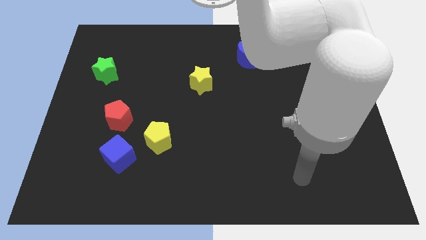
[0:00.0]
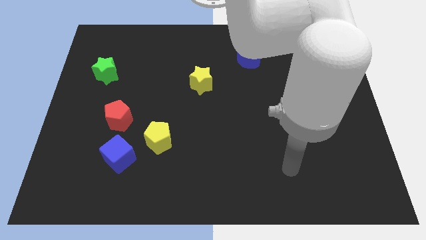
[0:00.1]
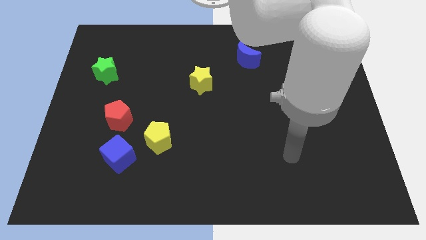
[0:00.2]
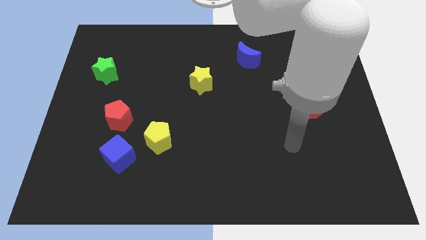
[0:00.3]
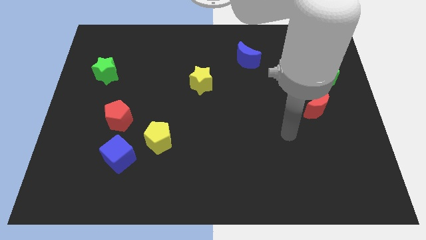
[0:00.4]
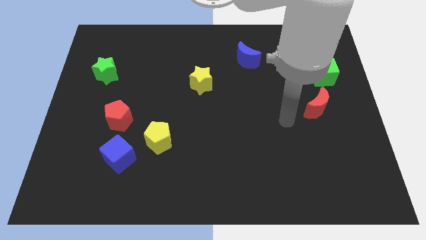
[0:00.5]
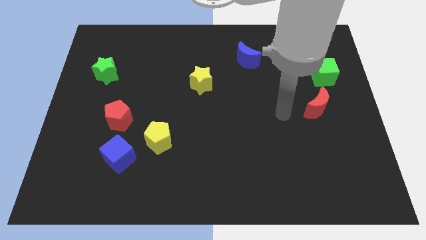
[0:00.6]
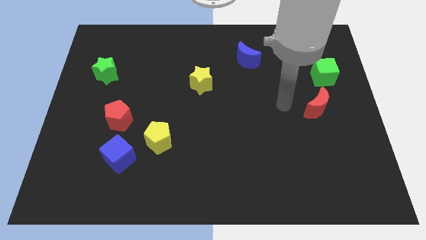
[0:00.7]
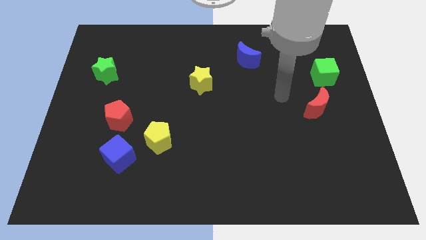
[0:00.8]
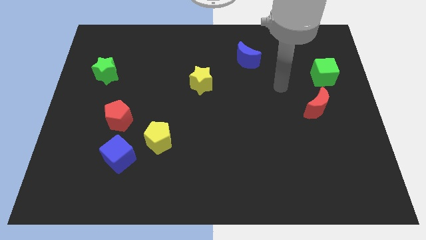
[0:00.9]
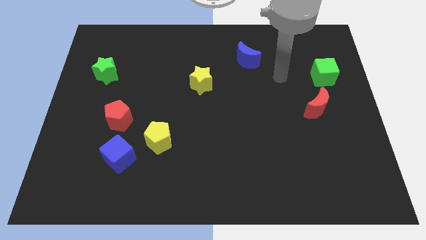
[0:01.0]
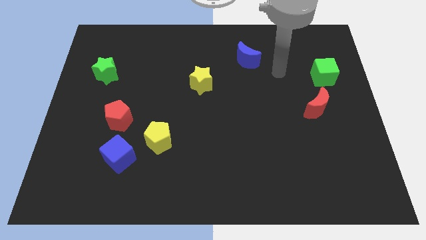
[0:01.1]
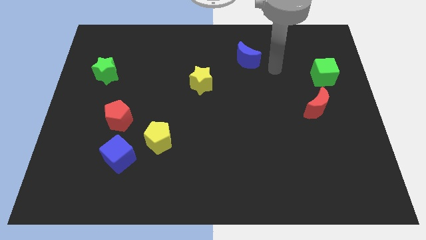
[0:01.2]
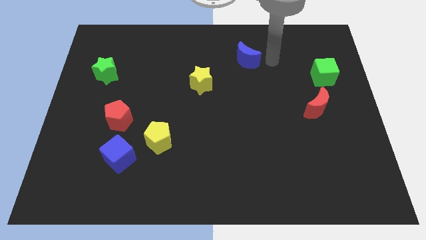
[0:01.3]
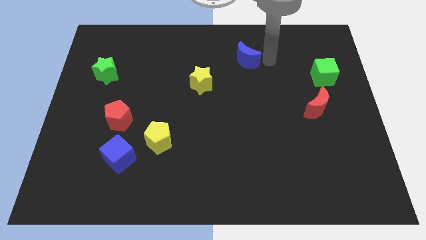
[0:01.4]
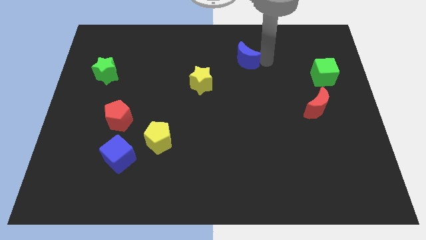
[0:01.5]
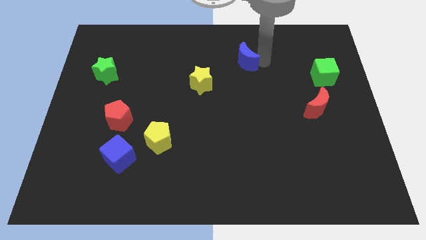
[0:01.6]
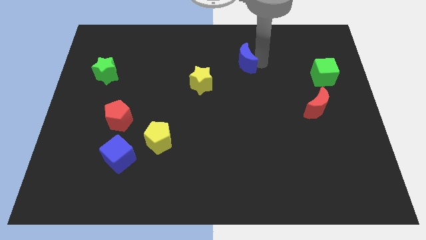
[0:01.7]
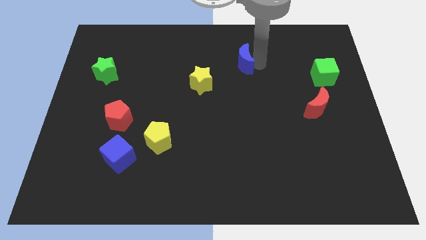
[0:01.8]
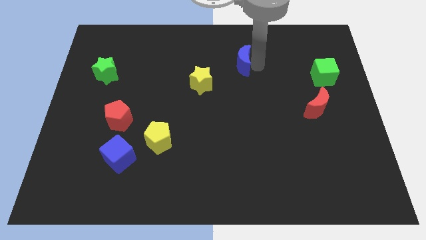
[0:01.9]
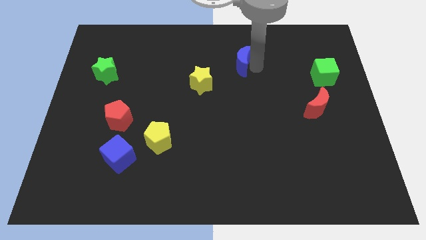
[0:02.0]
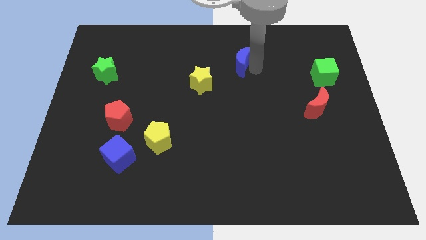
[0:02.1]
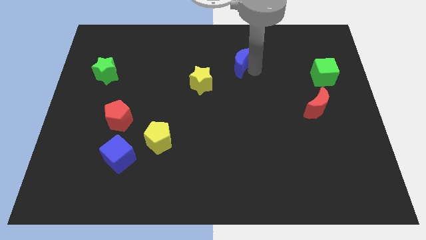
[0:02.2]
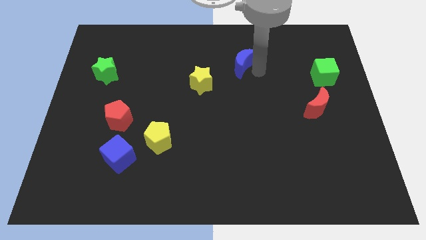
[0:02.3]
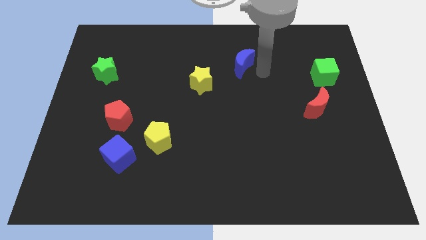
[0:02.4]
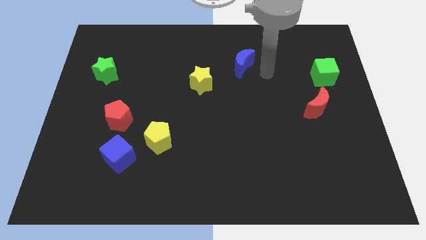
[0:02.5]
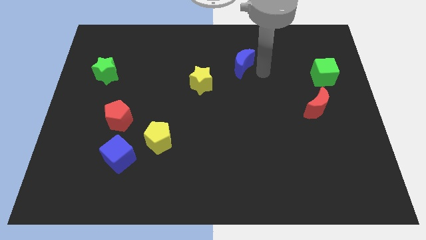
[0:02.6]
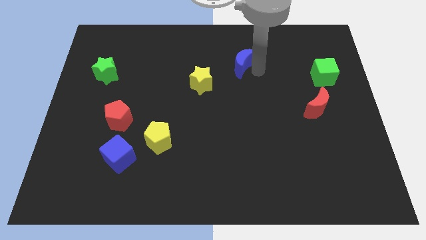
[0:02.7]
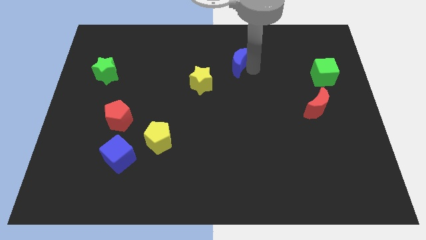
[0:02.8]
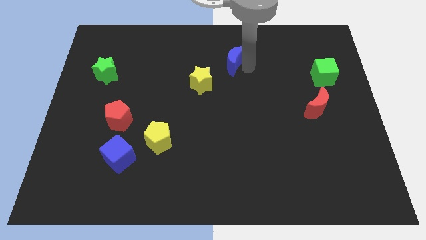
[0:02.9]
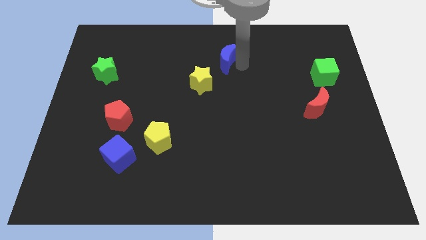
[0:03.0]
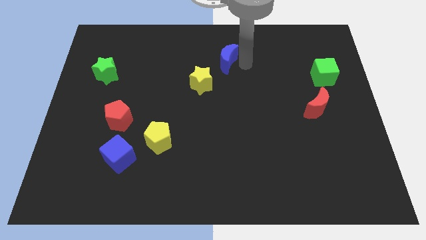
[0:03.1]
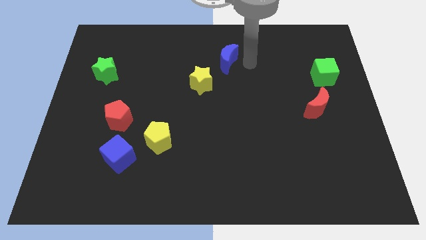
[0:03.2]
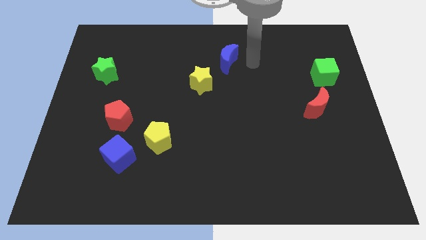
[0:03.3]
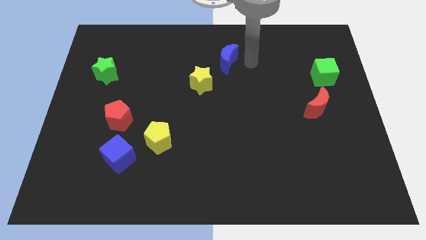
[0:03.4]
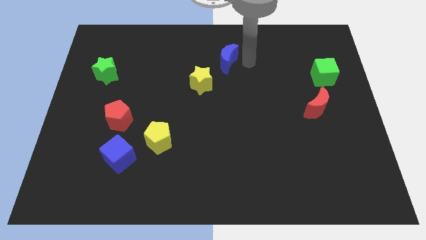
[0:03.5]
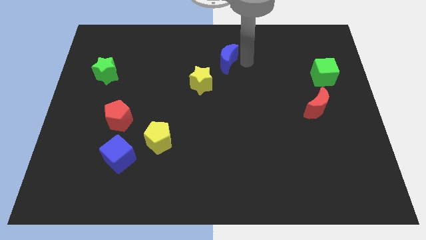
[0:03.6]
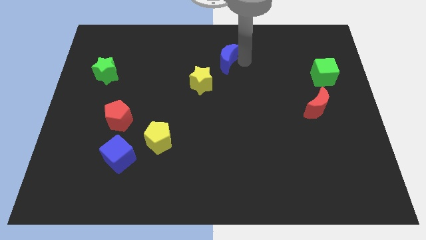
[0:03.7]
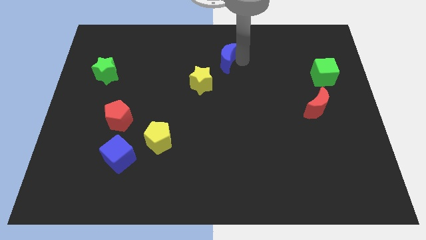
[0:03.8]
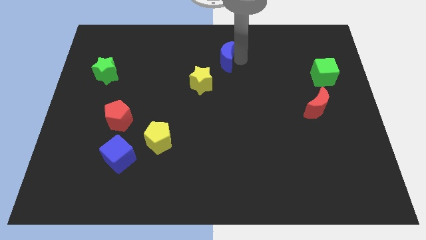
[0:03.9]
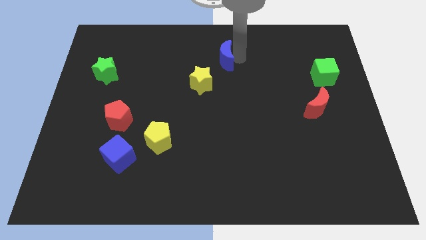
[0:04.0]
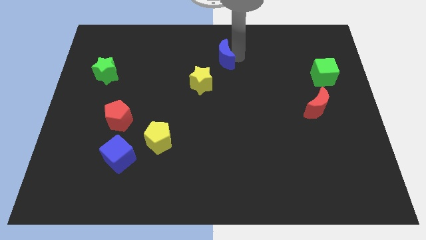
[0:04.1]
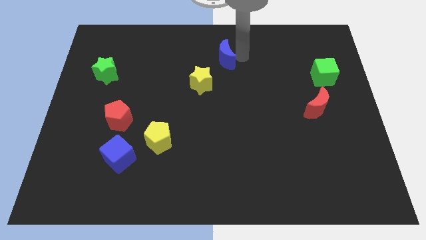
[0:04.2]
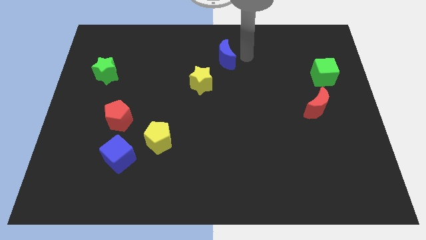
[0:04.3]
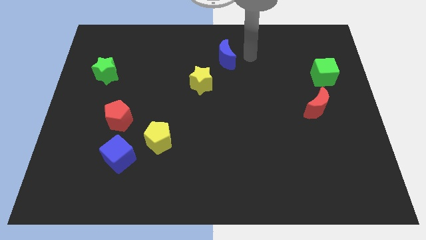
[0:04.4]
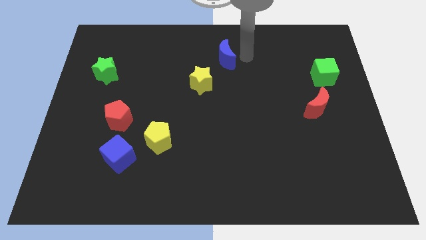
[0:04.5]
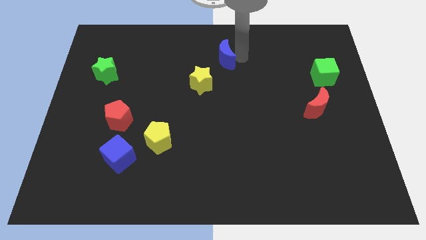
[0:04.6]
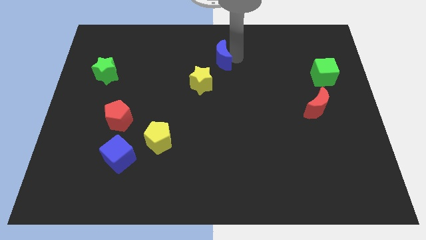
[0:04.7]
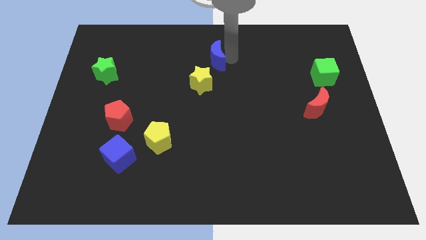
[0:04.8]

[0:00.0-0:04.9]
move the blue moon to the left somewhat

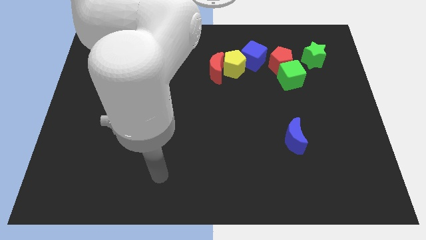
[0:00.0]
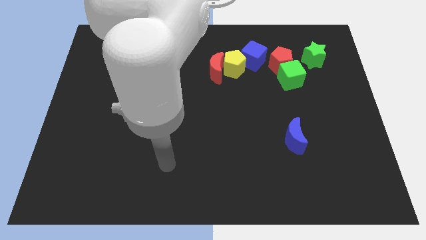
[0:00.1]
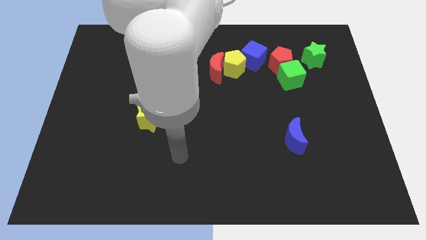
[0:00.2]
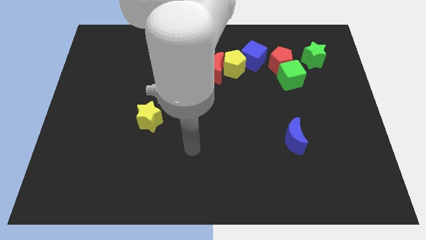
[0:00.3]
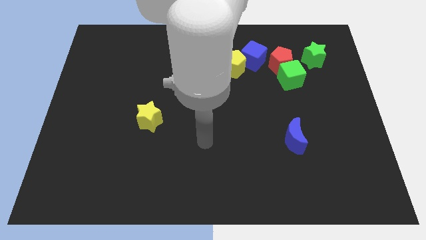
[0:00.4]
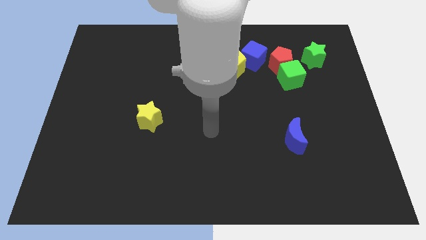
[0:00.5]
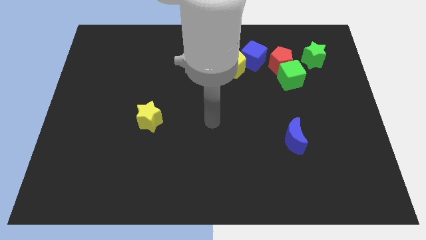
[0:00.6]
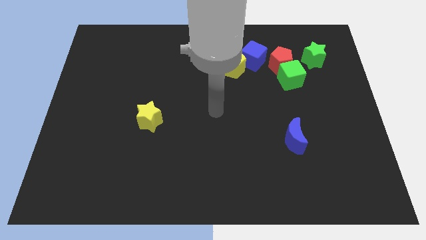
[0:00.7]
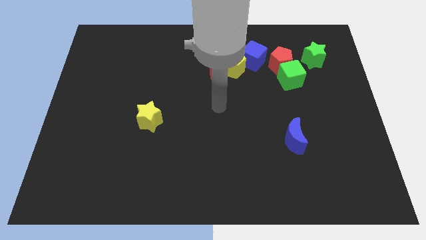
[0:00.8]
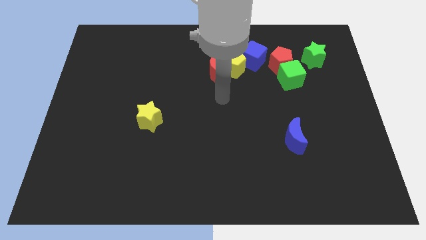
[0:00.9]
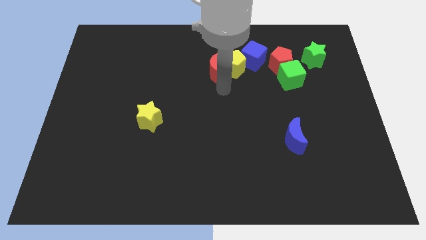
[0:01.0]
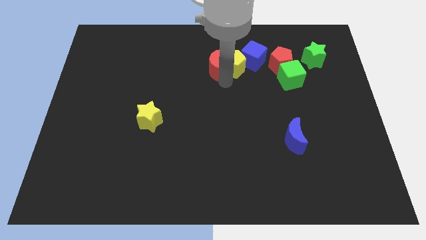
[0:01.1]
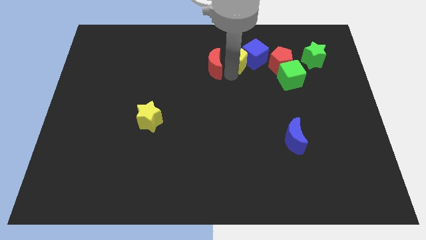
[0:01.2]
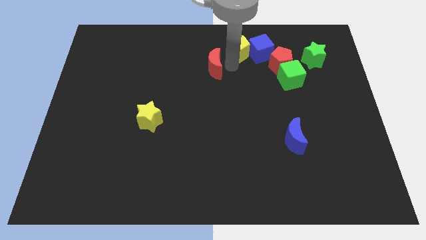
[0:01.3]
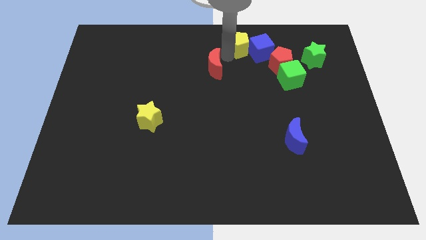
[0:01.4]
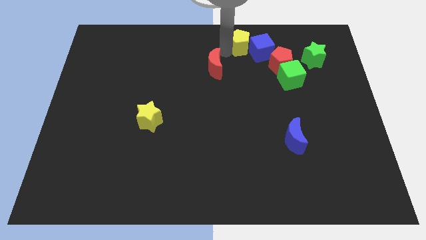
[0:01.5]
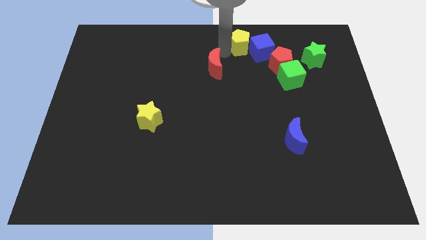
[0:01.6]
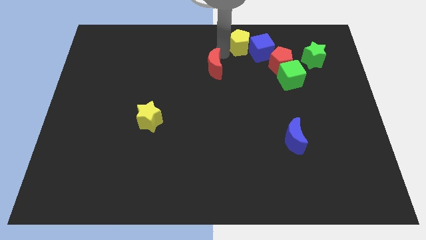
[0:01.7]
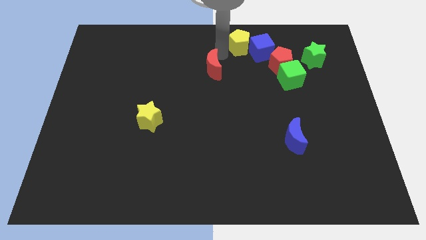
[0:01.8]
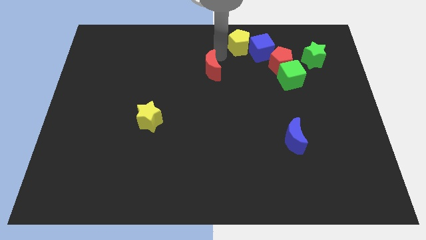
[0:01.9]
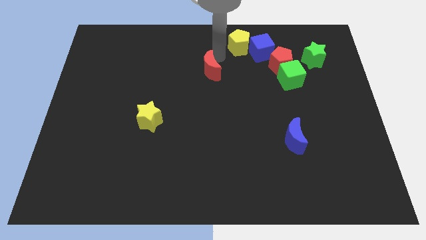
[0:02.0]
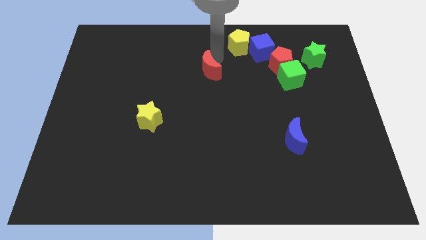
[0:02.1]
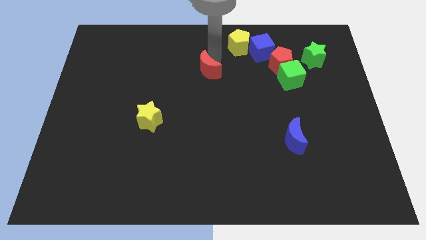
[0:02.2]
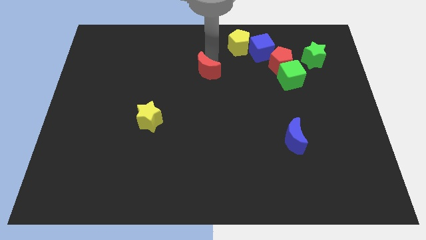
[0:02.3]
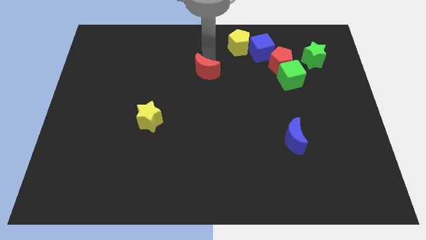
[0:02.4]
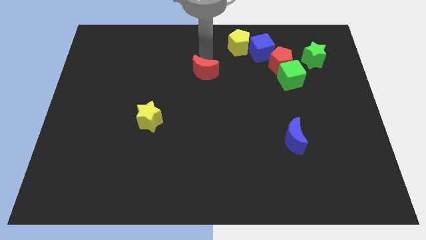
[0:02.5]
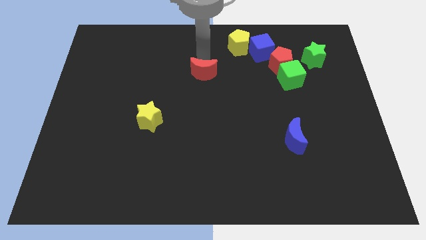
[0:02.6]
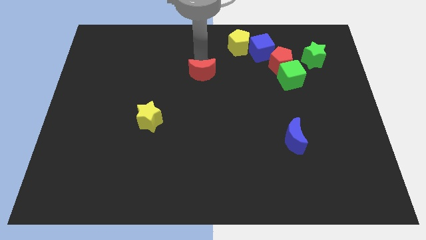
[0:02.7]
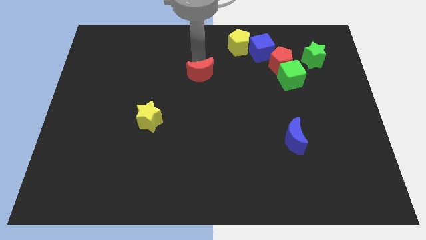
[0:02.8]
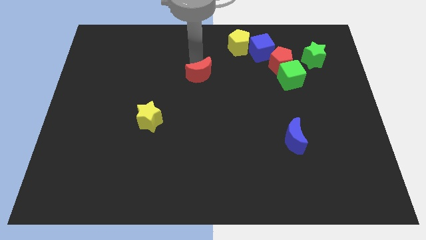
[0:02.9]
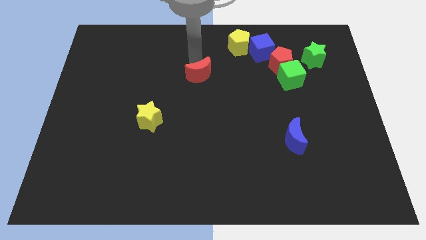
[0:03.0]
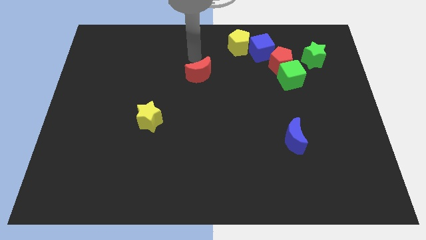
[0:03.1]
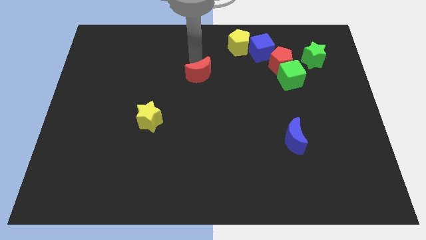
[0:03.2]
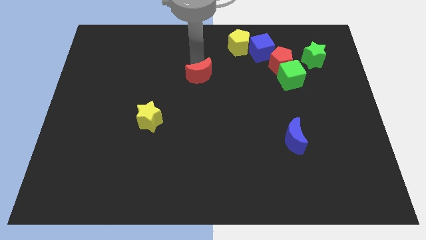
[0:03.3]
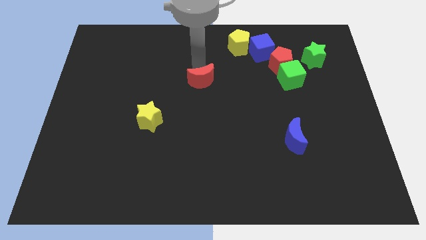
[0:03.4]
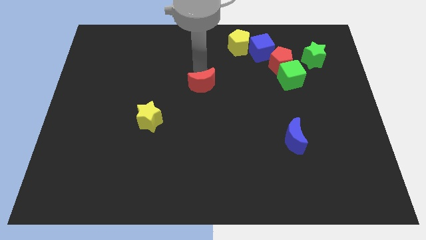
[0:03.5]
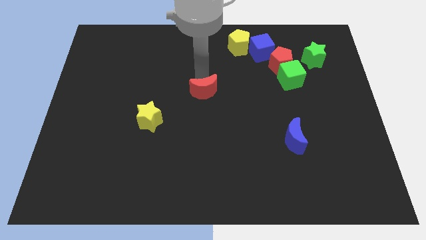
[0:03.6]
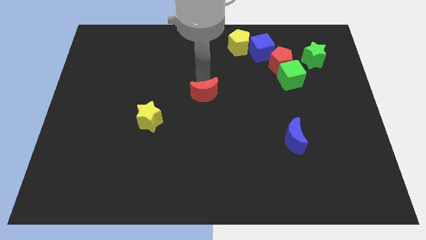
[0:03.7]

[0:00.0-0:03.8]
slightly push the red moon down
